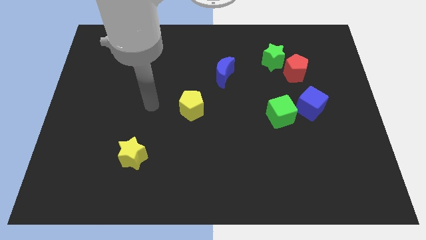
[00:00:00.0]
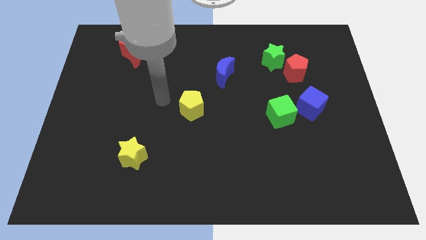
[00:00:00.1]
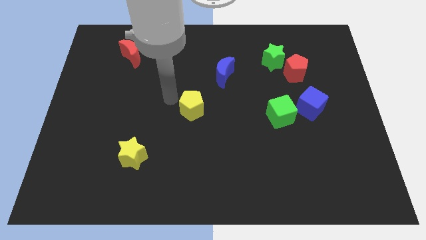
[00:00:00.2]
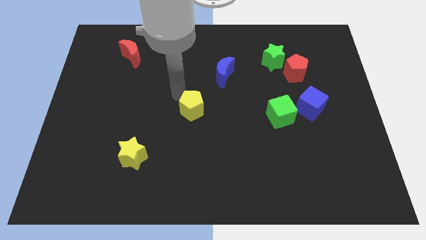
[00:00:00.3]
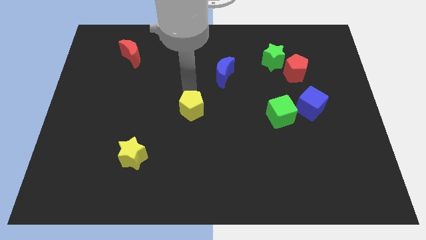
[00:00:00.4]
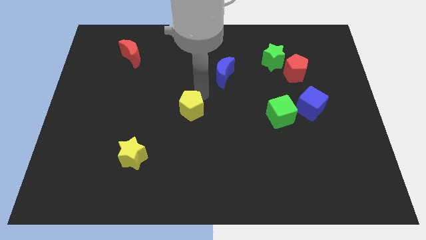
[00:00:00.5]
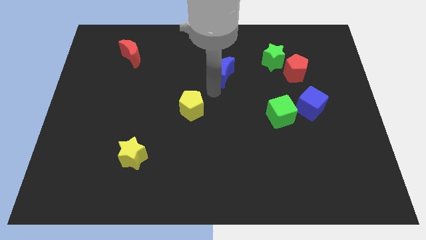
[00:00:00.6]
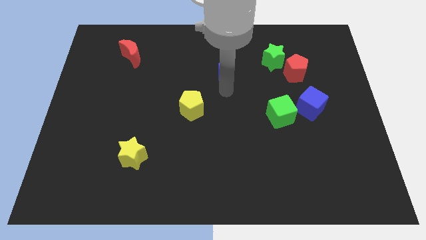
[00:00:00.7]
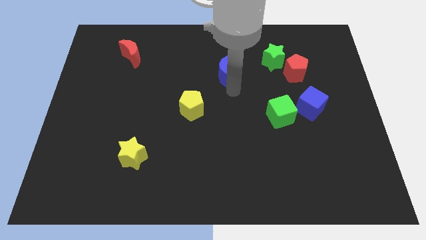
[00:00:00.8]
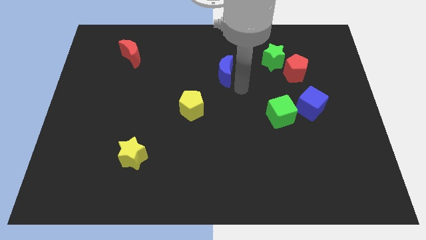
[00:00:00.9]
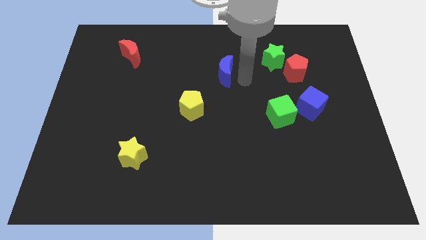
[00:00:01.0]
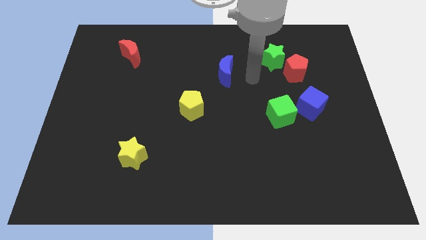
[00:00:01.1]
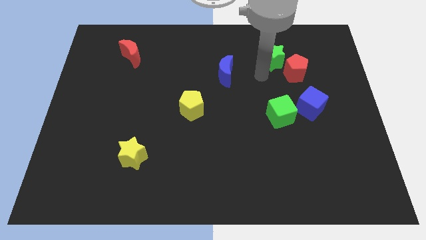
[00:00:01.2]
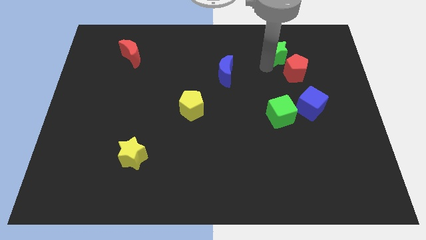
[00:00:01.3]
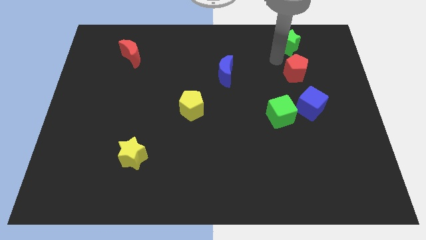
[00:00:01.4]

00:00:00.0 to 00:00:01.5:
separate the red pentagon from the green star

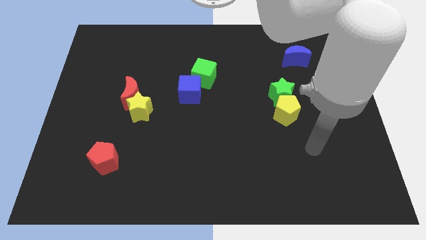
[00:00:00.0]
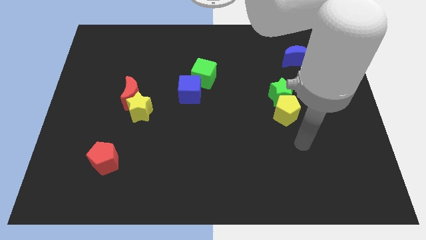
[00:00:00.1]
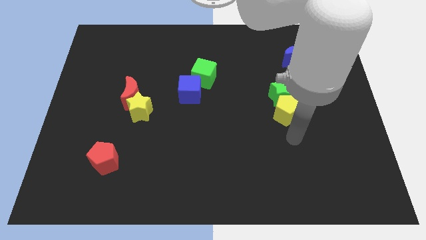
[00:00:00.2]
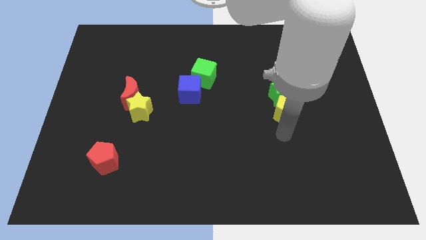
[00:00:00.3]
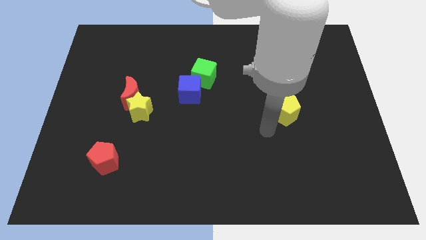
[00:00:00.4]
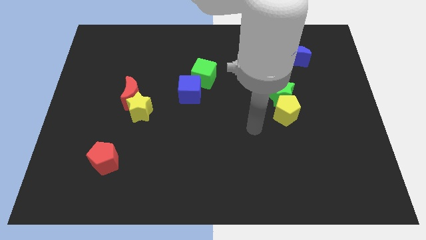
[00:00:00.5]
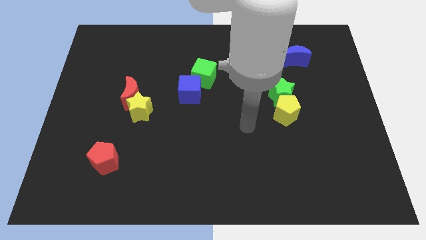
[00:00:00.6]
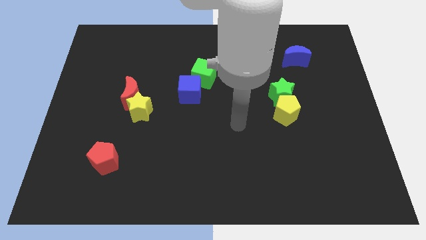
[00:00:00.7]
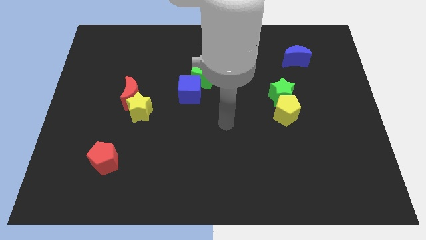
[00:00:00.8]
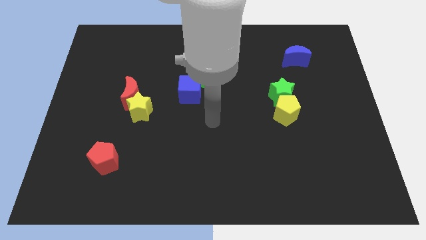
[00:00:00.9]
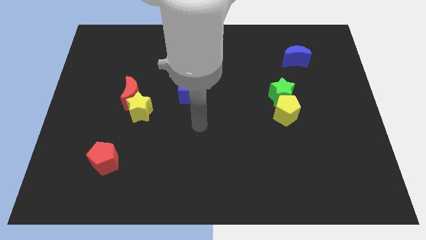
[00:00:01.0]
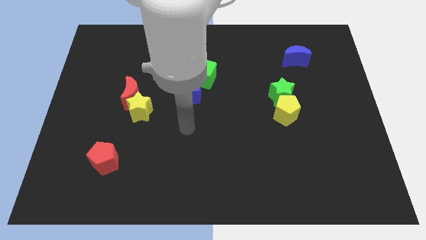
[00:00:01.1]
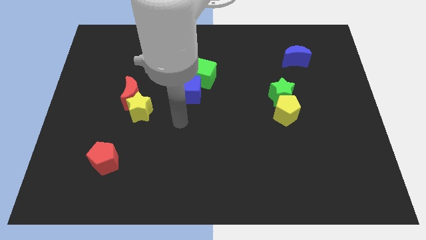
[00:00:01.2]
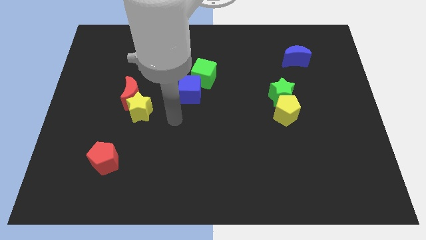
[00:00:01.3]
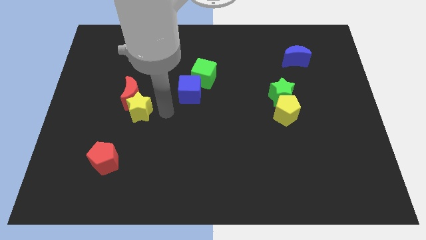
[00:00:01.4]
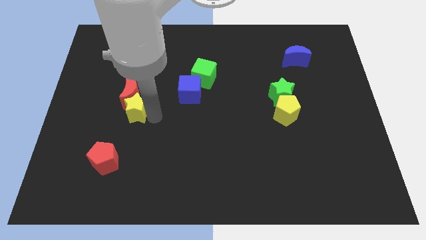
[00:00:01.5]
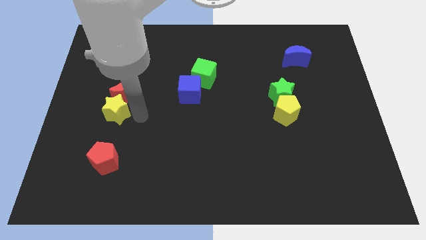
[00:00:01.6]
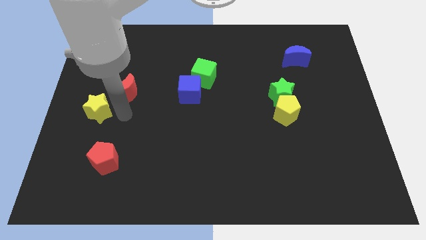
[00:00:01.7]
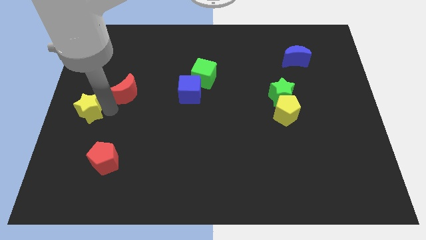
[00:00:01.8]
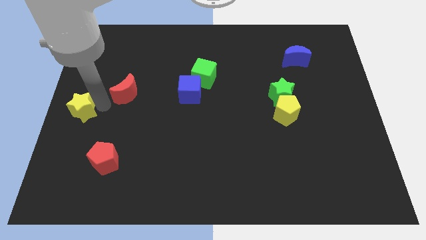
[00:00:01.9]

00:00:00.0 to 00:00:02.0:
pull the red moon apart from the yellow star

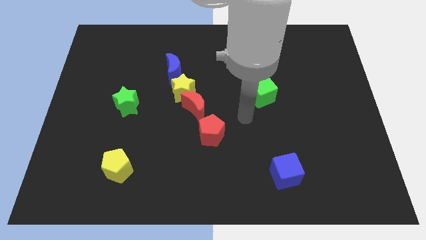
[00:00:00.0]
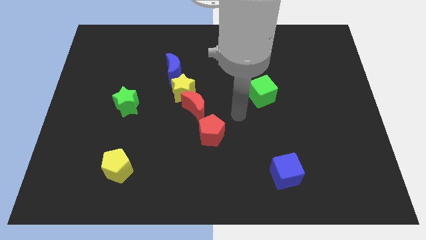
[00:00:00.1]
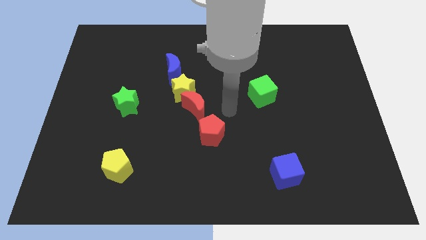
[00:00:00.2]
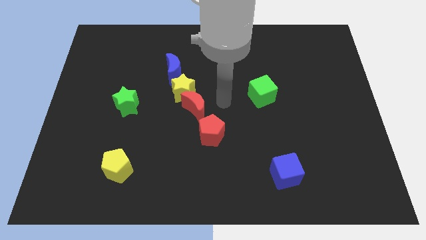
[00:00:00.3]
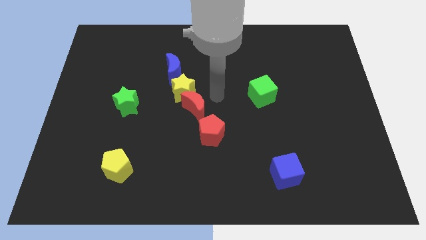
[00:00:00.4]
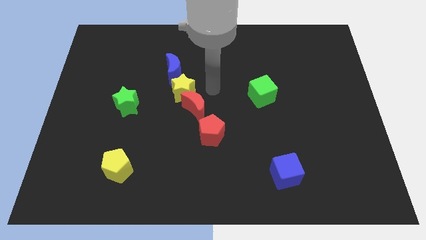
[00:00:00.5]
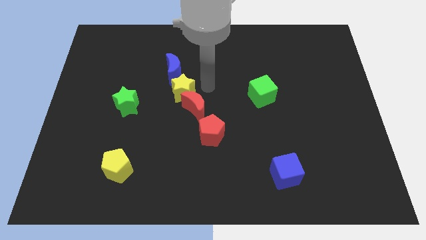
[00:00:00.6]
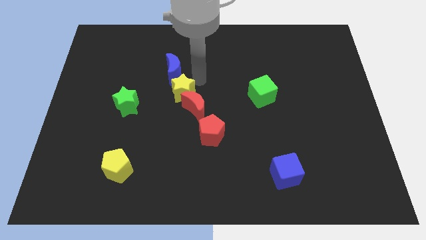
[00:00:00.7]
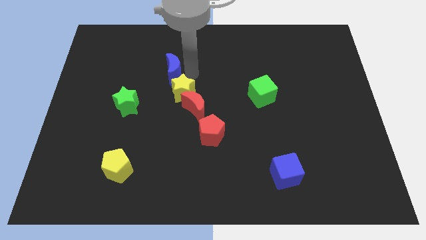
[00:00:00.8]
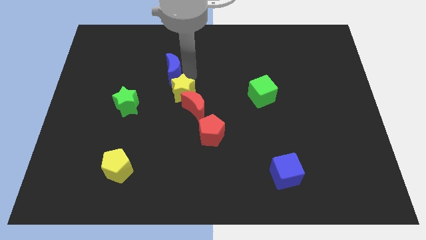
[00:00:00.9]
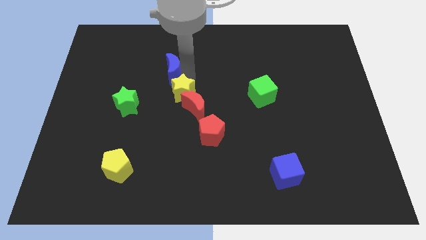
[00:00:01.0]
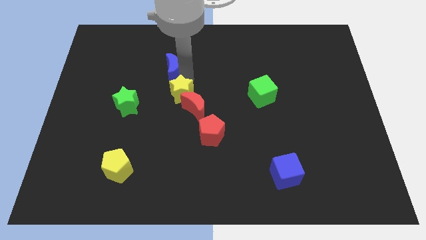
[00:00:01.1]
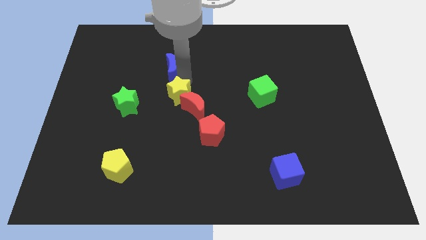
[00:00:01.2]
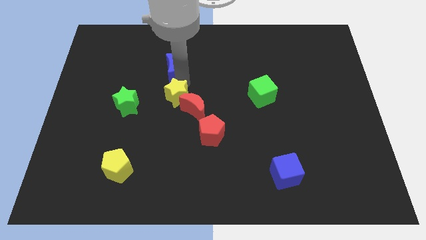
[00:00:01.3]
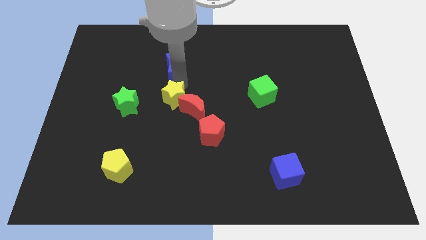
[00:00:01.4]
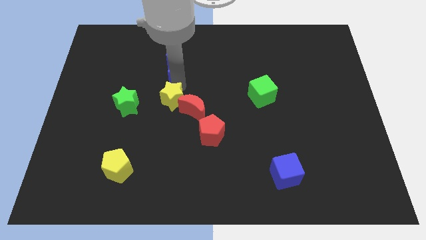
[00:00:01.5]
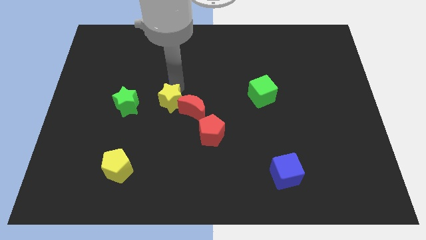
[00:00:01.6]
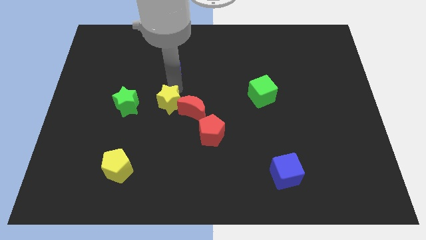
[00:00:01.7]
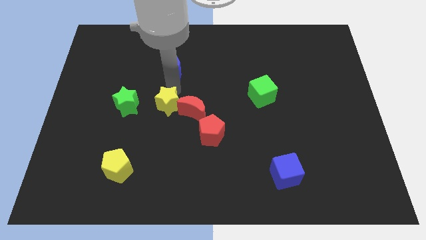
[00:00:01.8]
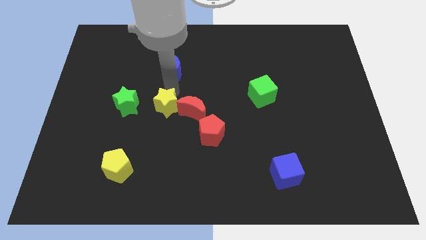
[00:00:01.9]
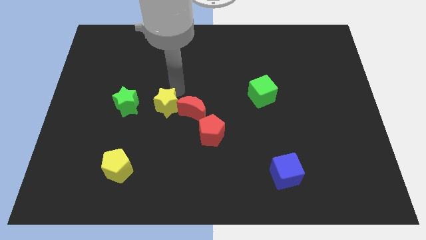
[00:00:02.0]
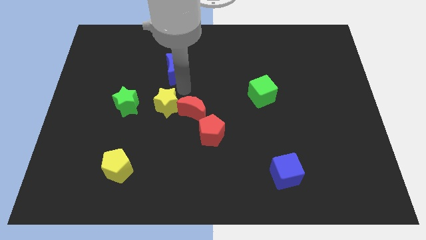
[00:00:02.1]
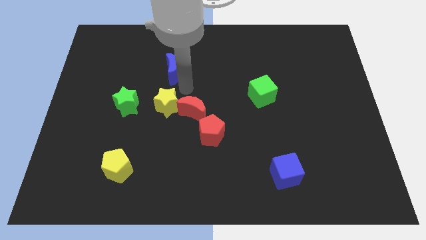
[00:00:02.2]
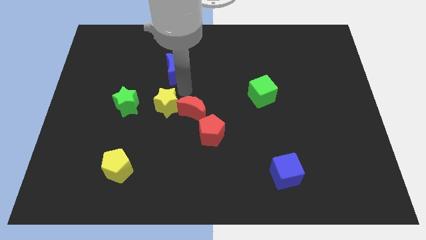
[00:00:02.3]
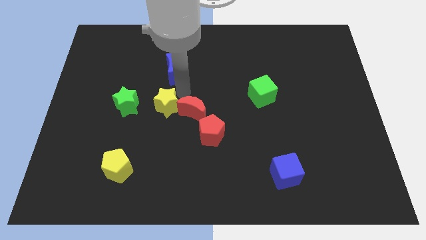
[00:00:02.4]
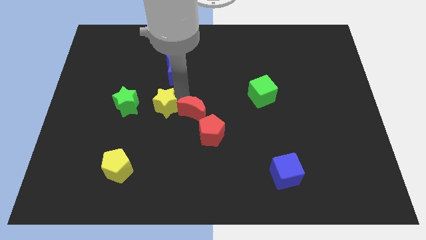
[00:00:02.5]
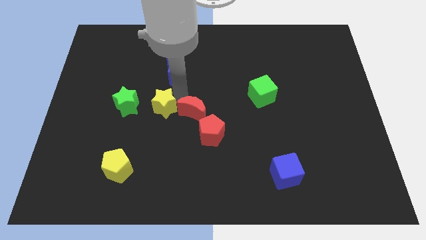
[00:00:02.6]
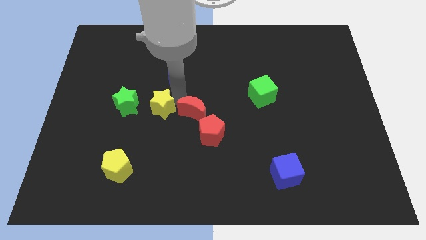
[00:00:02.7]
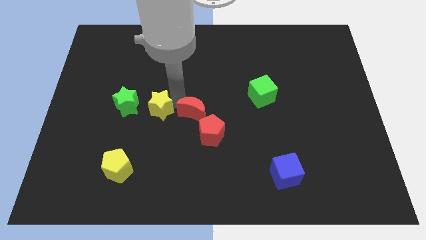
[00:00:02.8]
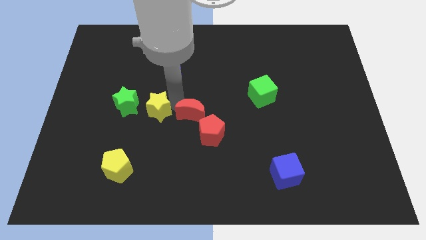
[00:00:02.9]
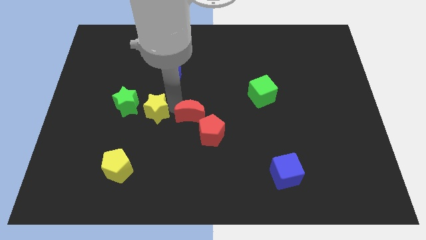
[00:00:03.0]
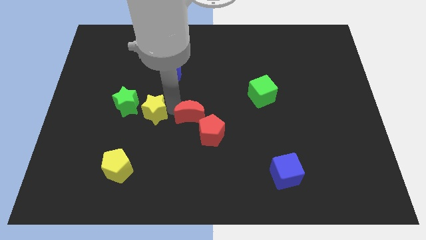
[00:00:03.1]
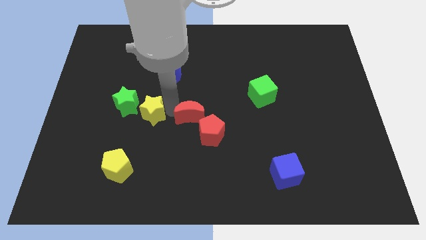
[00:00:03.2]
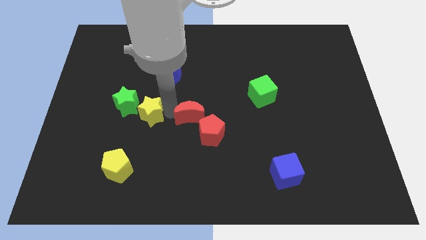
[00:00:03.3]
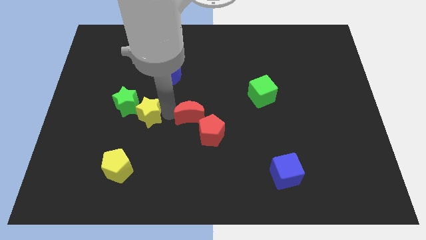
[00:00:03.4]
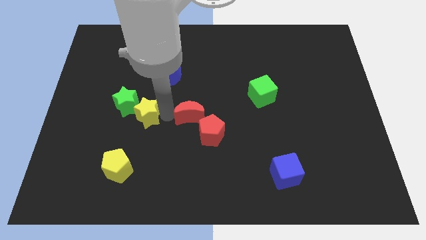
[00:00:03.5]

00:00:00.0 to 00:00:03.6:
separate the yellow star from the red moon and blue moon

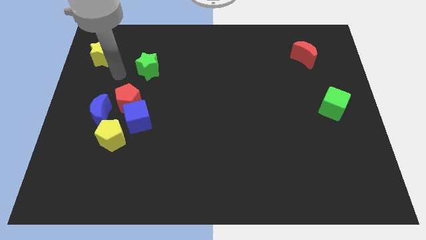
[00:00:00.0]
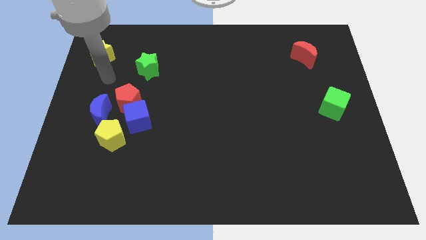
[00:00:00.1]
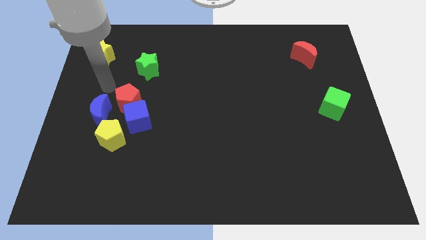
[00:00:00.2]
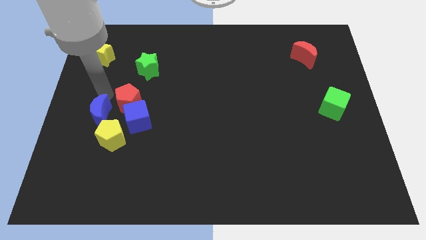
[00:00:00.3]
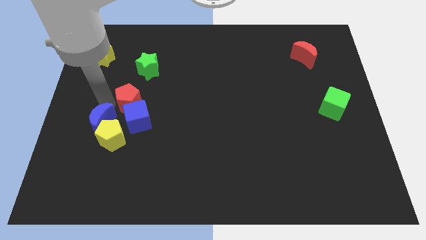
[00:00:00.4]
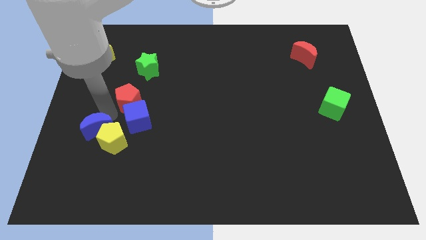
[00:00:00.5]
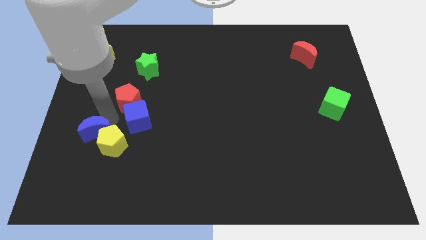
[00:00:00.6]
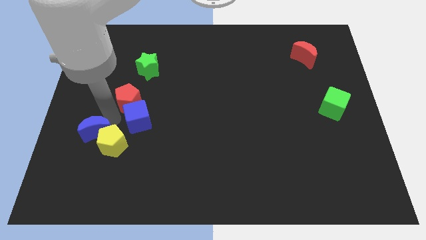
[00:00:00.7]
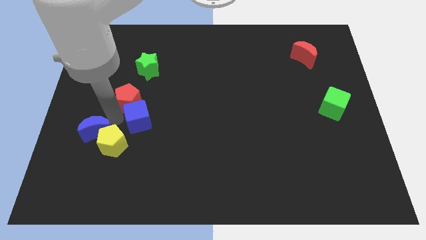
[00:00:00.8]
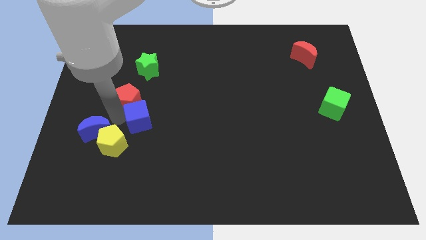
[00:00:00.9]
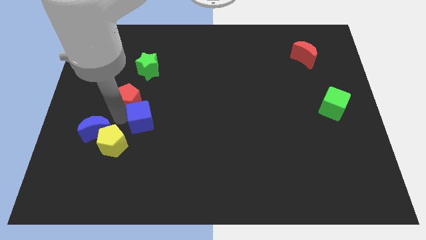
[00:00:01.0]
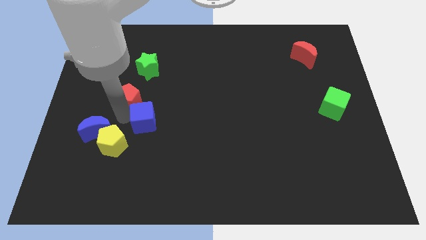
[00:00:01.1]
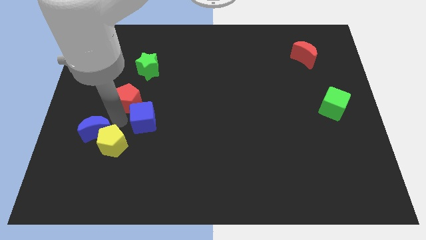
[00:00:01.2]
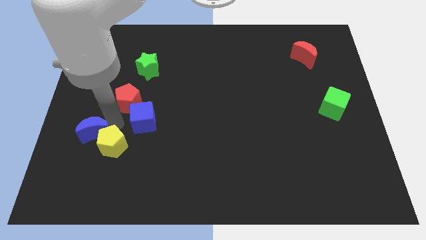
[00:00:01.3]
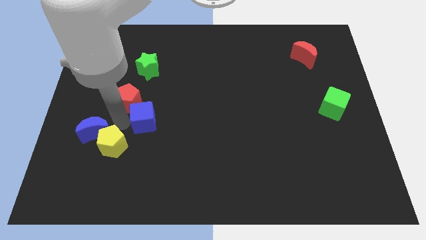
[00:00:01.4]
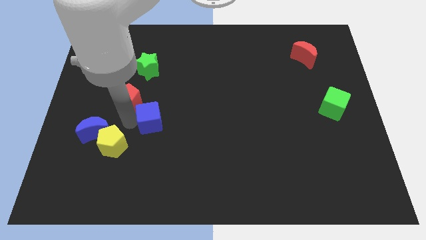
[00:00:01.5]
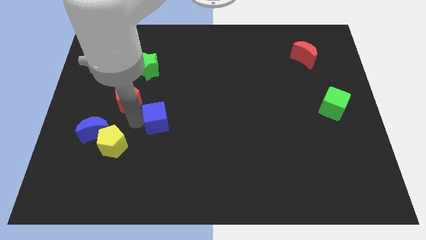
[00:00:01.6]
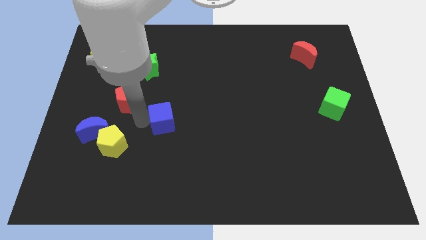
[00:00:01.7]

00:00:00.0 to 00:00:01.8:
pull the blue cube apart from the group

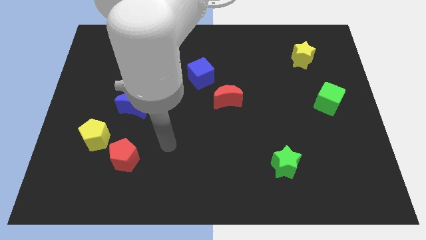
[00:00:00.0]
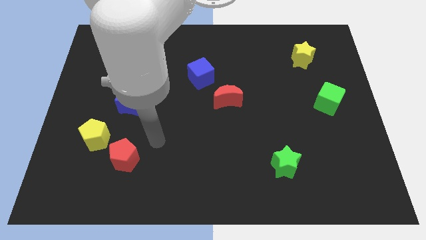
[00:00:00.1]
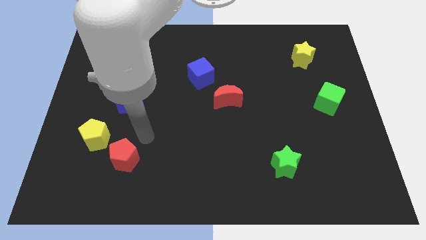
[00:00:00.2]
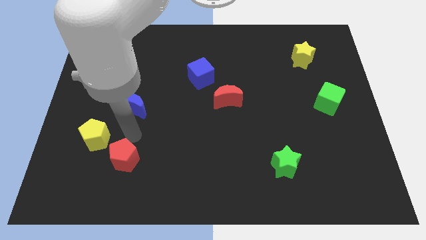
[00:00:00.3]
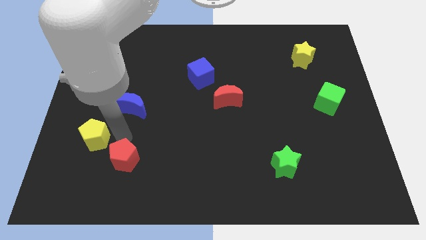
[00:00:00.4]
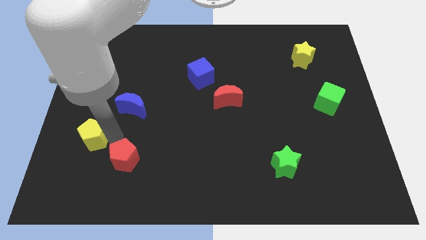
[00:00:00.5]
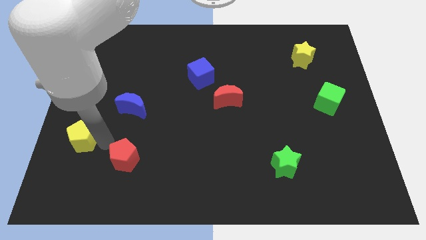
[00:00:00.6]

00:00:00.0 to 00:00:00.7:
pull the red pentagon apart from the yellow pentagon
